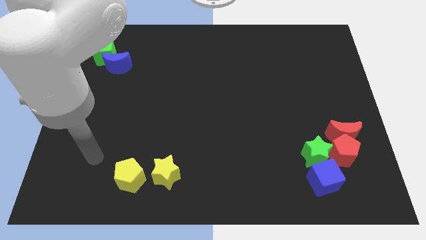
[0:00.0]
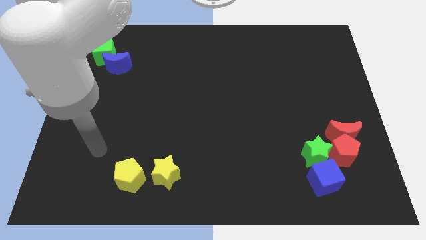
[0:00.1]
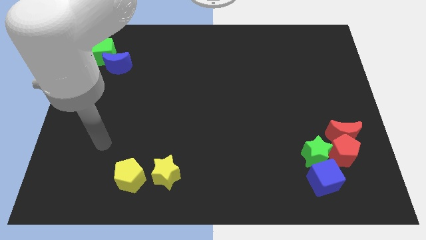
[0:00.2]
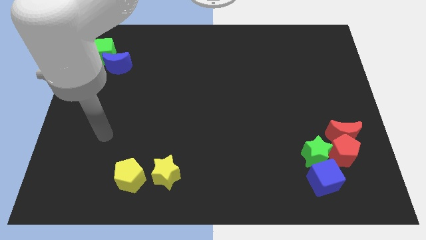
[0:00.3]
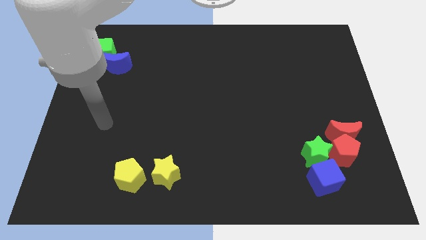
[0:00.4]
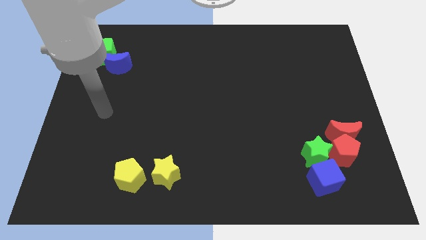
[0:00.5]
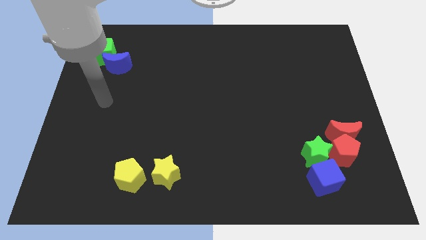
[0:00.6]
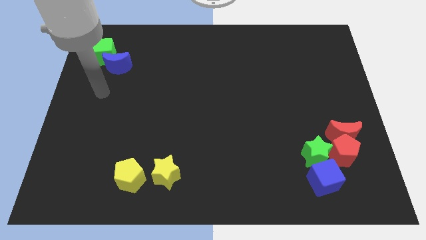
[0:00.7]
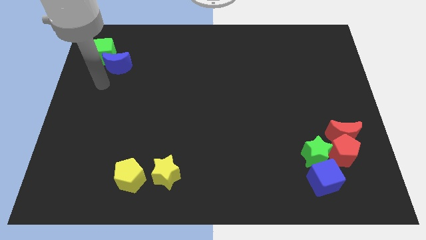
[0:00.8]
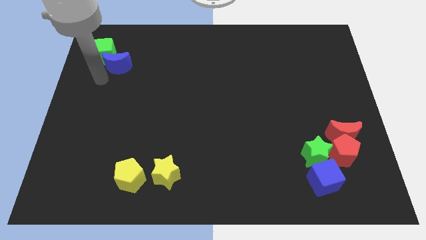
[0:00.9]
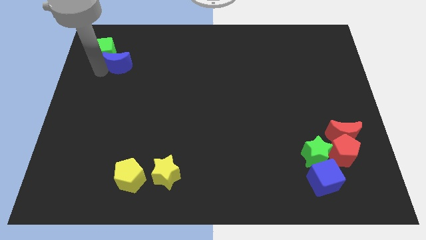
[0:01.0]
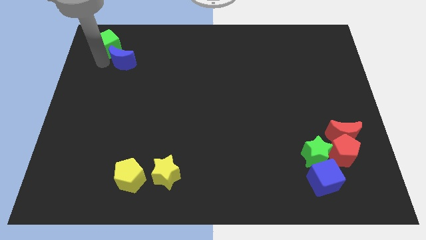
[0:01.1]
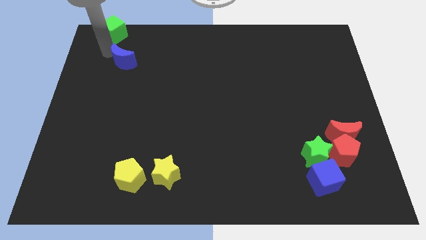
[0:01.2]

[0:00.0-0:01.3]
move the blue moon away from the green cube

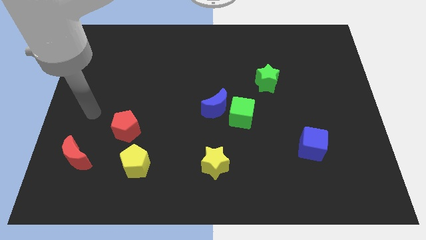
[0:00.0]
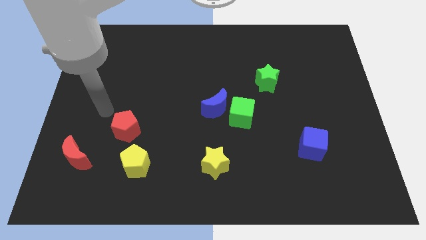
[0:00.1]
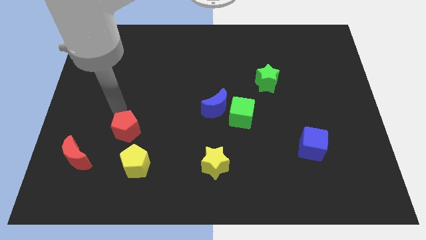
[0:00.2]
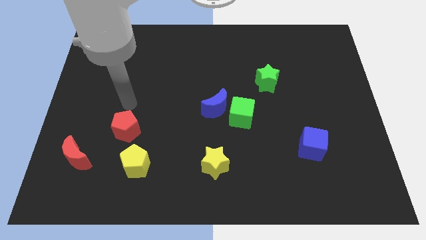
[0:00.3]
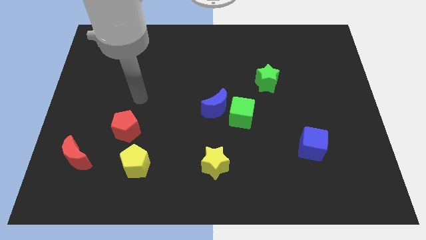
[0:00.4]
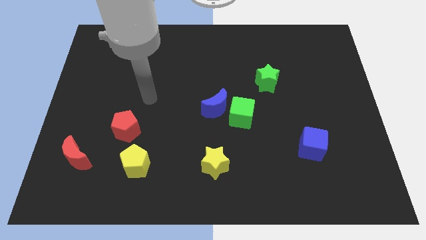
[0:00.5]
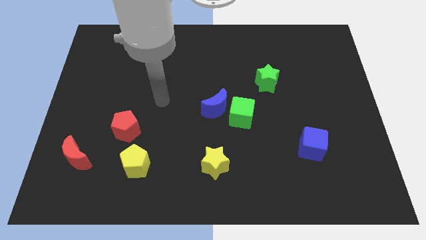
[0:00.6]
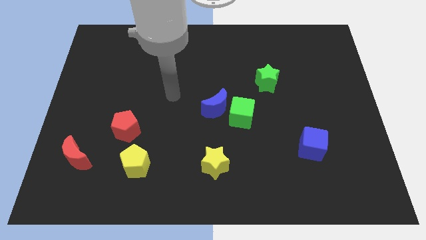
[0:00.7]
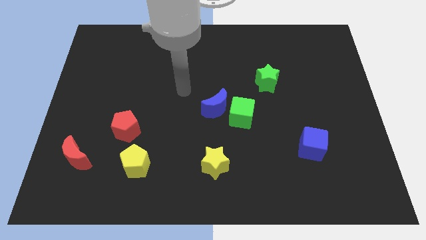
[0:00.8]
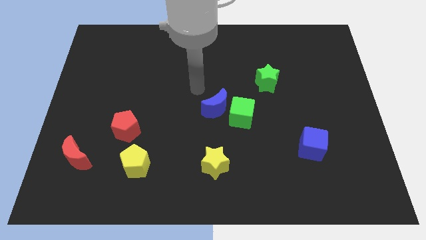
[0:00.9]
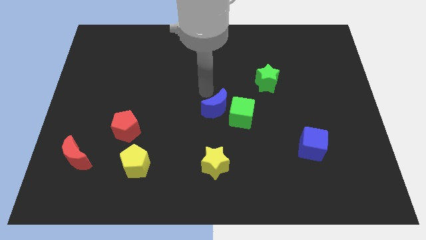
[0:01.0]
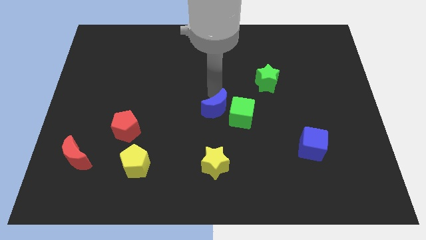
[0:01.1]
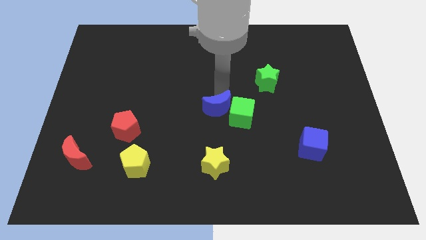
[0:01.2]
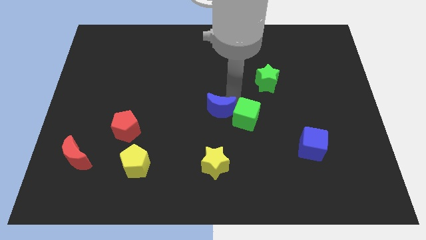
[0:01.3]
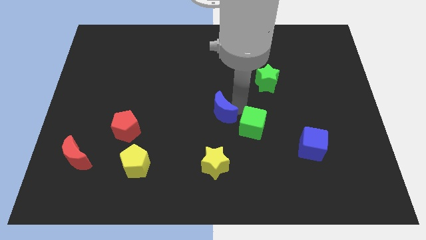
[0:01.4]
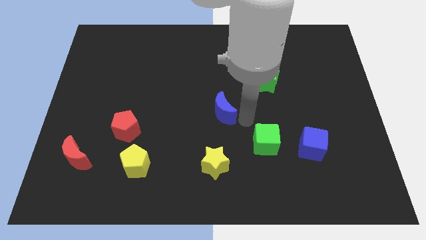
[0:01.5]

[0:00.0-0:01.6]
separate the blue moon from the green cube

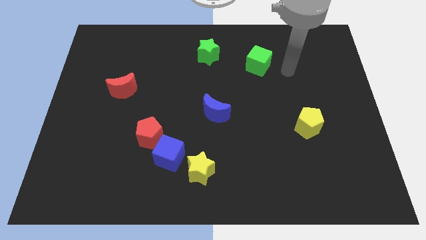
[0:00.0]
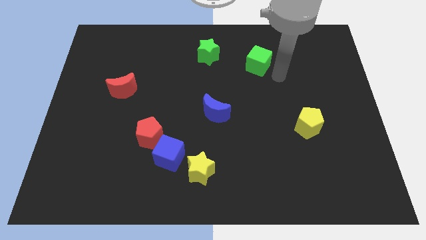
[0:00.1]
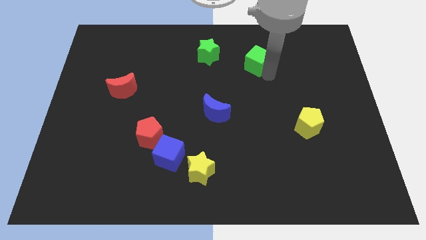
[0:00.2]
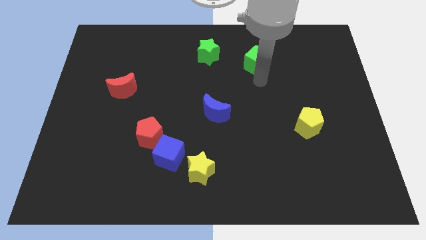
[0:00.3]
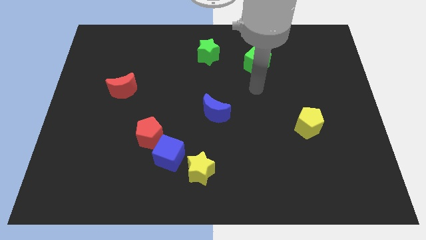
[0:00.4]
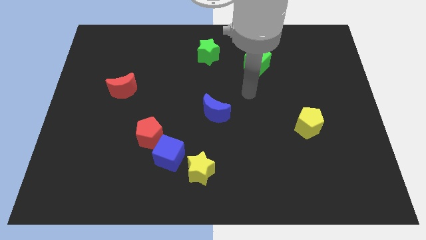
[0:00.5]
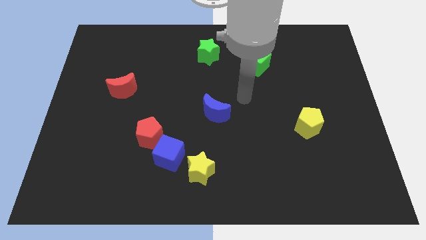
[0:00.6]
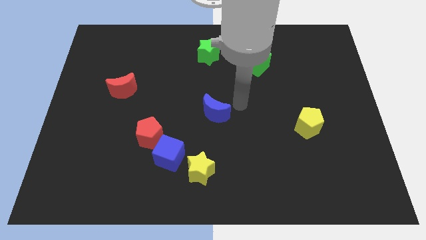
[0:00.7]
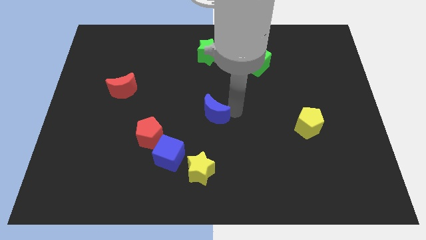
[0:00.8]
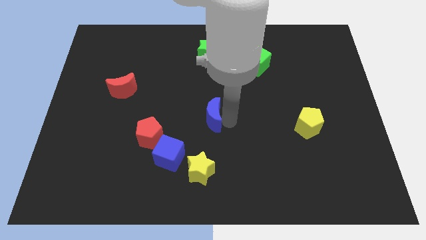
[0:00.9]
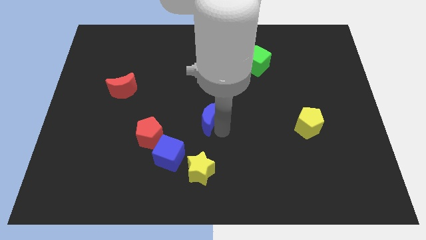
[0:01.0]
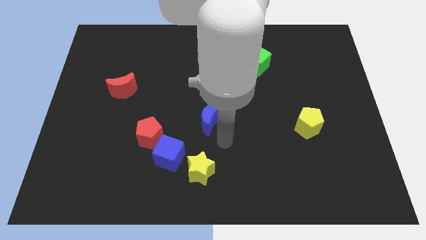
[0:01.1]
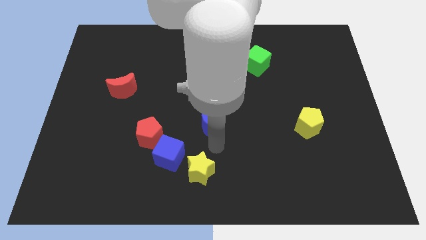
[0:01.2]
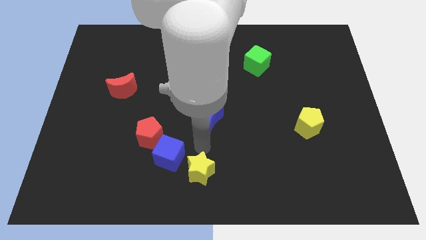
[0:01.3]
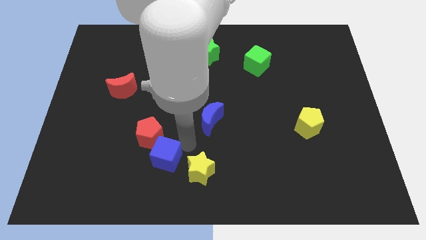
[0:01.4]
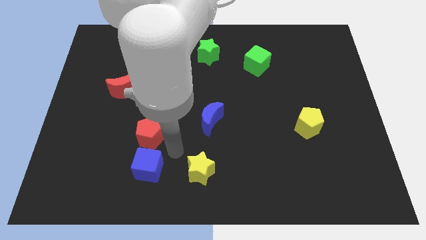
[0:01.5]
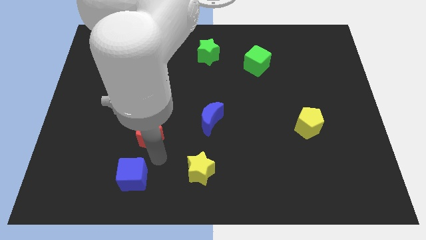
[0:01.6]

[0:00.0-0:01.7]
move the red pentagon away from the blue cube

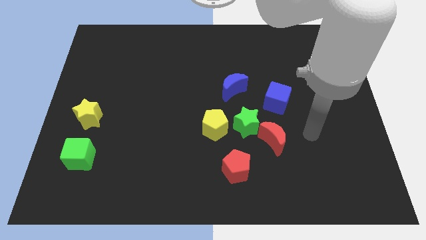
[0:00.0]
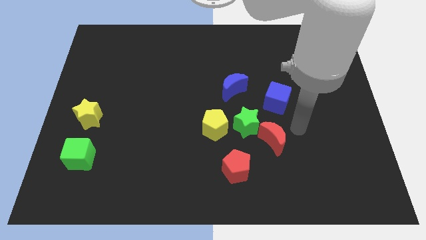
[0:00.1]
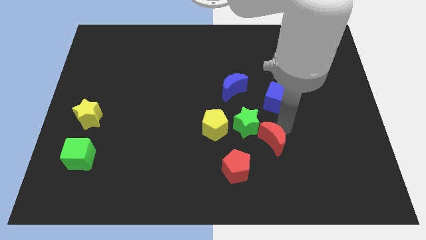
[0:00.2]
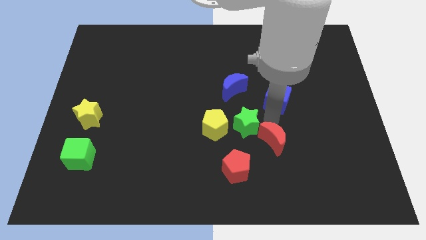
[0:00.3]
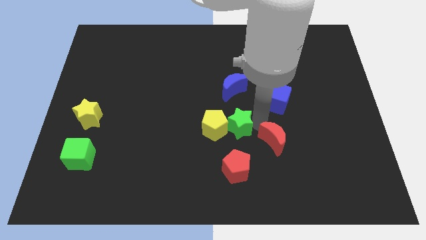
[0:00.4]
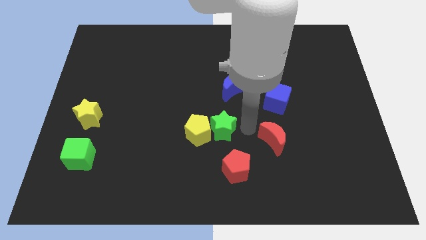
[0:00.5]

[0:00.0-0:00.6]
separate the red moon from the green star

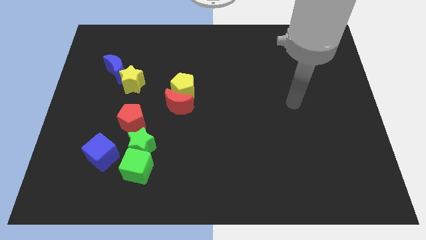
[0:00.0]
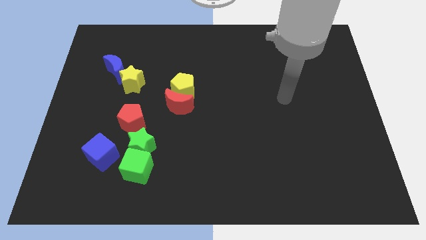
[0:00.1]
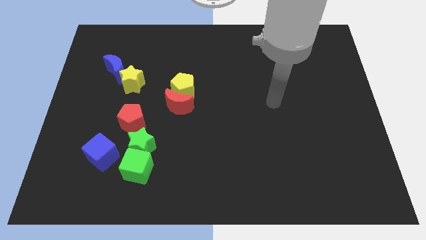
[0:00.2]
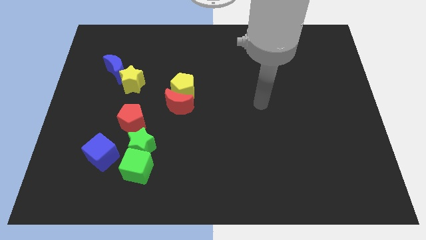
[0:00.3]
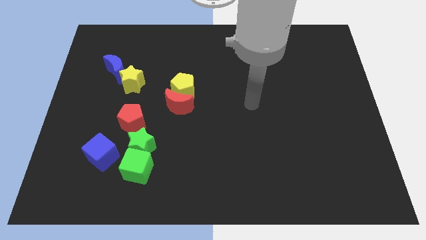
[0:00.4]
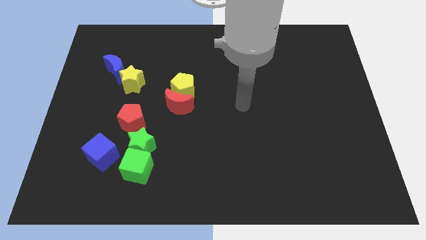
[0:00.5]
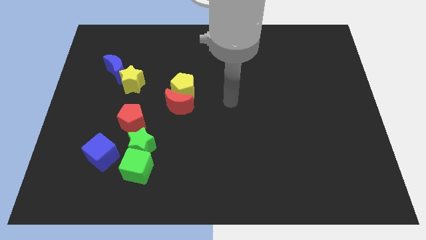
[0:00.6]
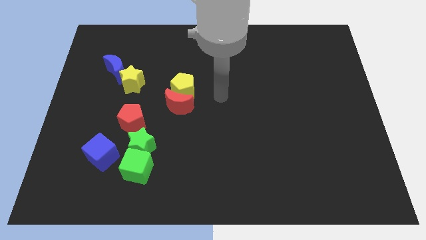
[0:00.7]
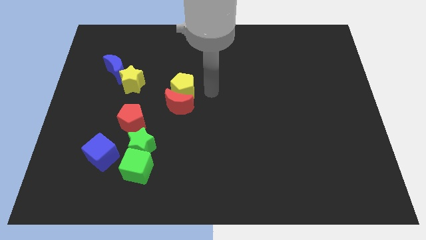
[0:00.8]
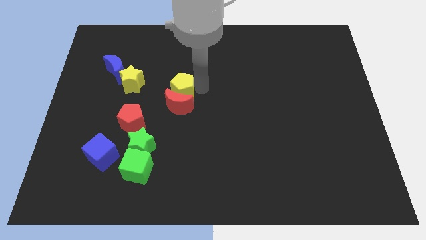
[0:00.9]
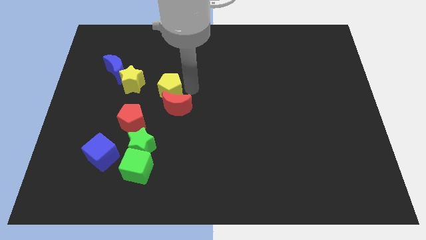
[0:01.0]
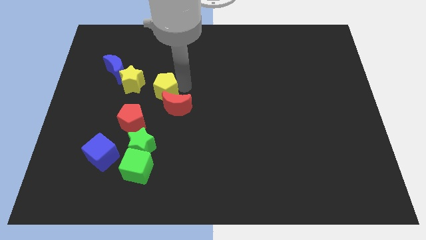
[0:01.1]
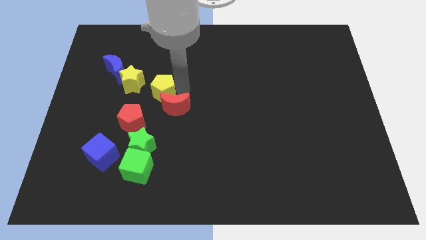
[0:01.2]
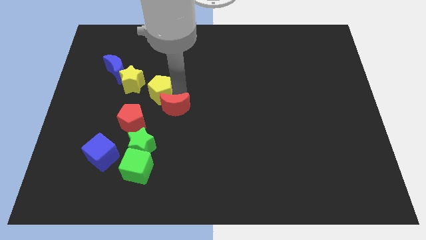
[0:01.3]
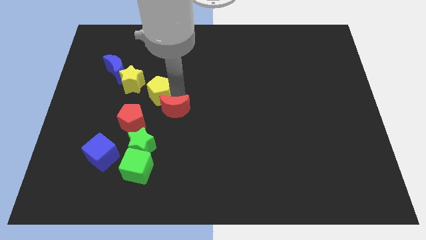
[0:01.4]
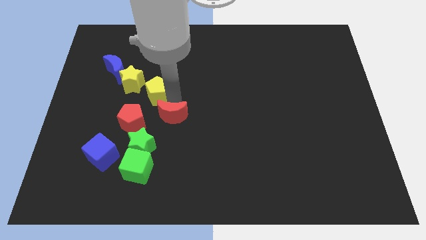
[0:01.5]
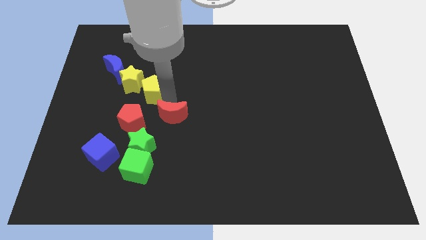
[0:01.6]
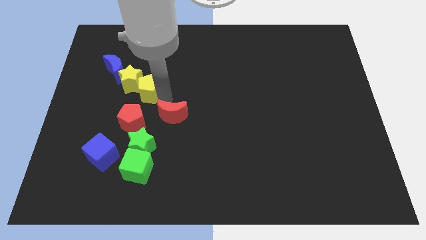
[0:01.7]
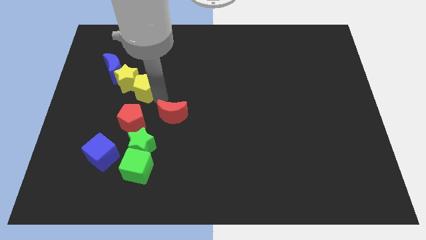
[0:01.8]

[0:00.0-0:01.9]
pull the red moon apart from the yellow pentagon

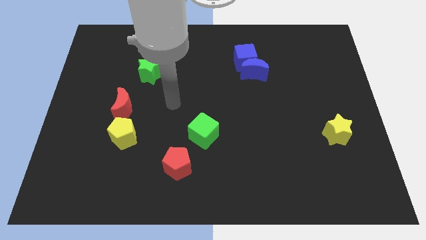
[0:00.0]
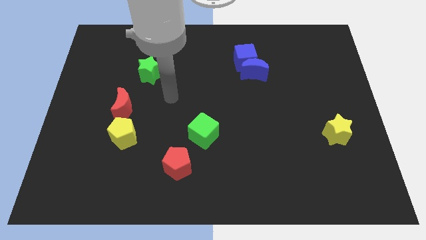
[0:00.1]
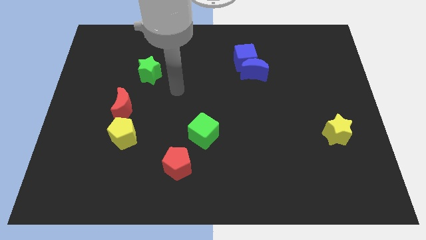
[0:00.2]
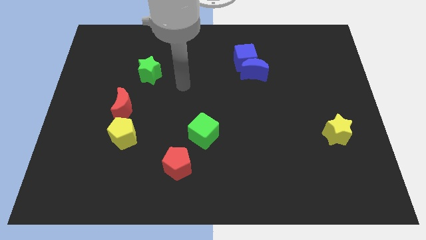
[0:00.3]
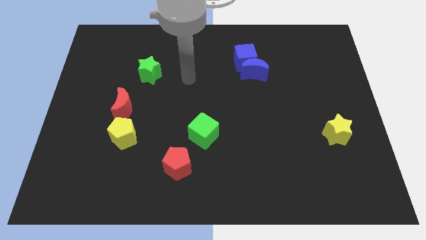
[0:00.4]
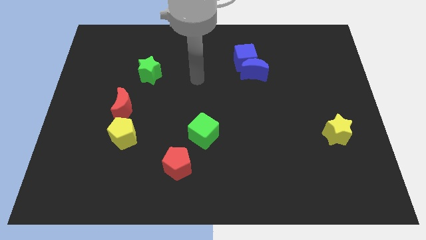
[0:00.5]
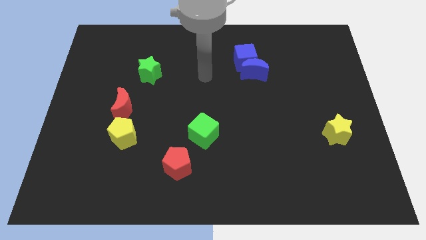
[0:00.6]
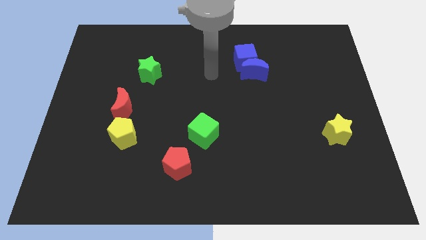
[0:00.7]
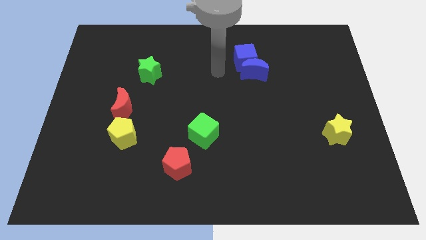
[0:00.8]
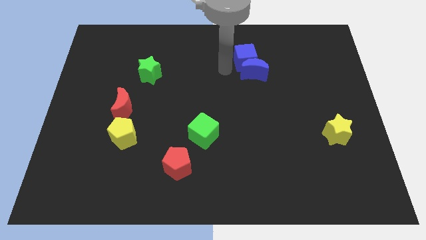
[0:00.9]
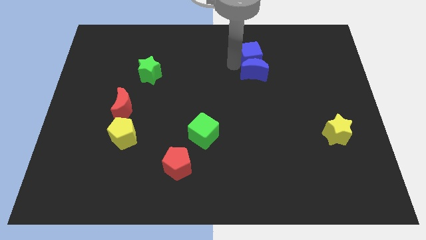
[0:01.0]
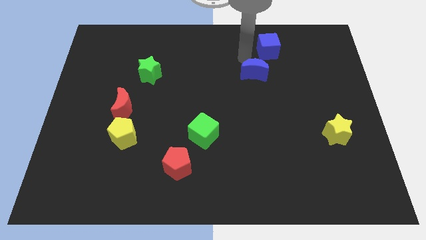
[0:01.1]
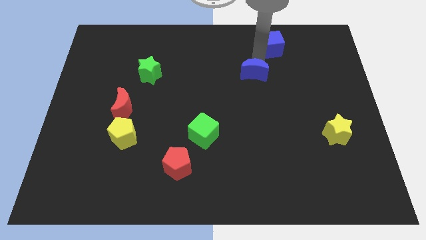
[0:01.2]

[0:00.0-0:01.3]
pull the blue moon apart from the blue cube

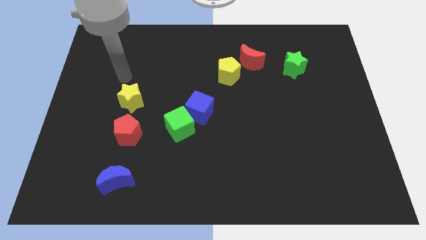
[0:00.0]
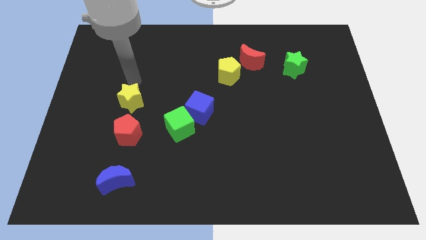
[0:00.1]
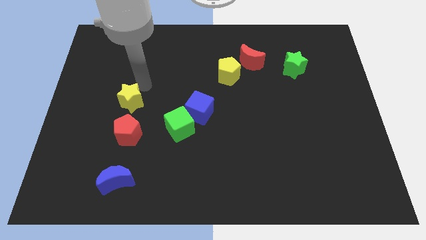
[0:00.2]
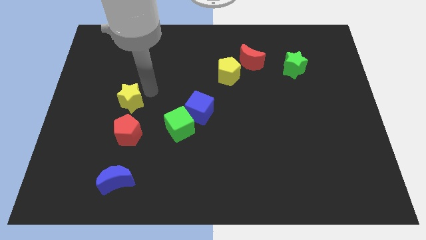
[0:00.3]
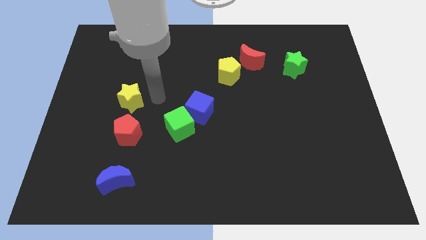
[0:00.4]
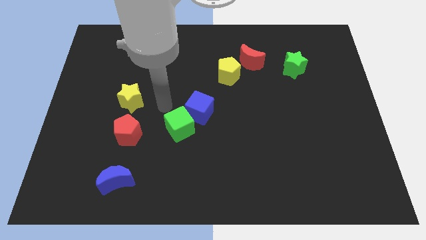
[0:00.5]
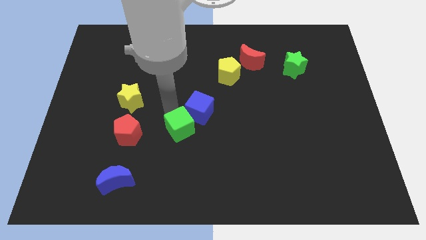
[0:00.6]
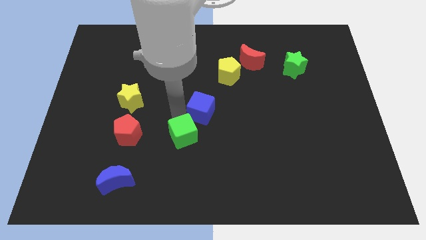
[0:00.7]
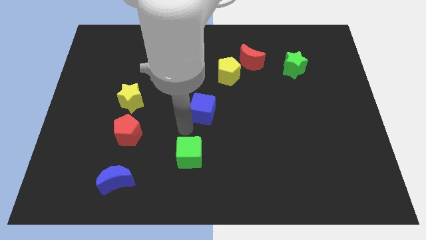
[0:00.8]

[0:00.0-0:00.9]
pull the blue cube apart from the green cube
